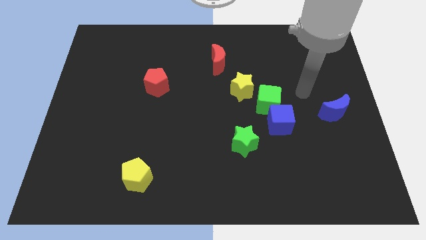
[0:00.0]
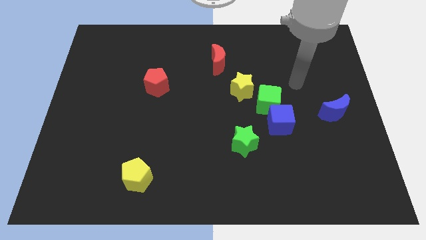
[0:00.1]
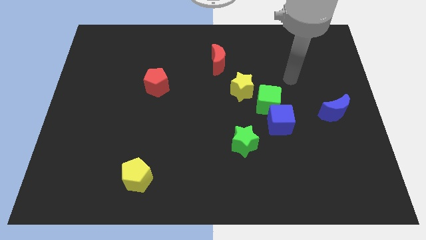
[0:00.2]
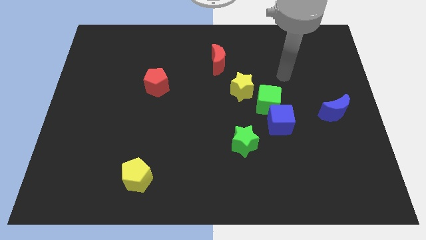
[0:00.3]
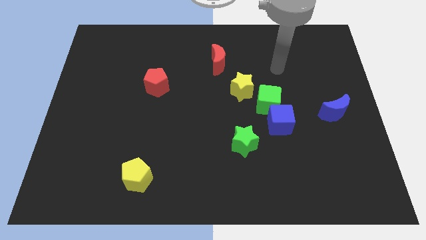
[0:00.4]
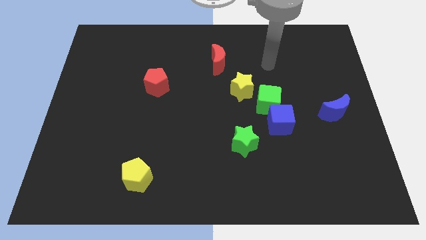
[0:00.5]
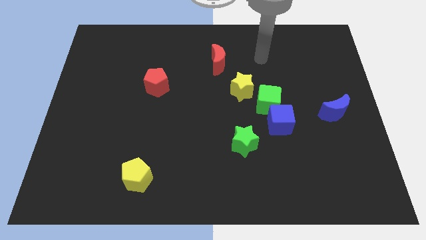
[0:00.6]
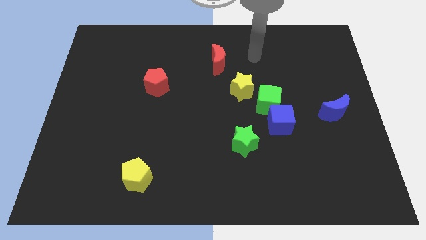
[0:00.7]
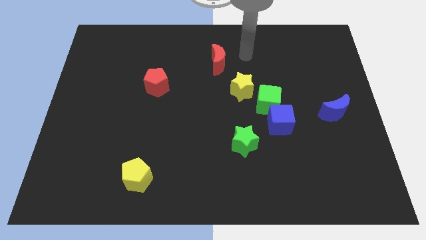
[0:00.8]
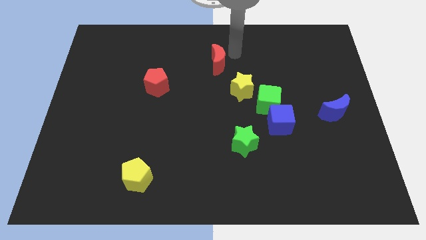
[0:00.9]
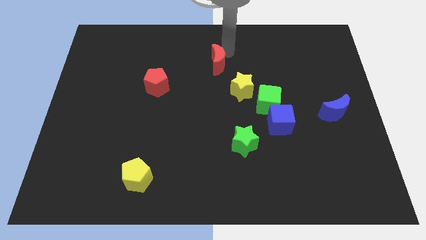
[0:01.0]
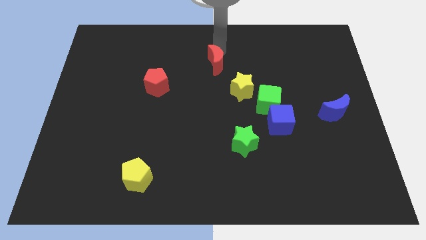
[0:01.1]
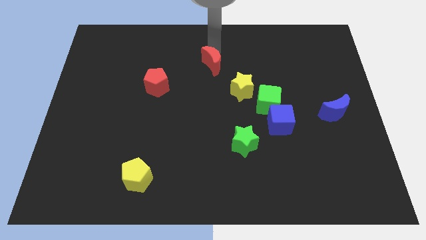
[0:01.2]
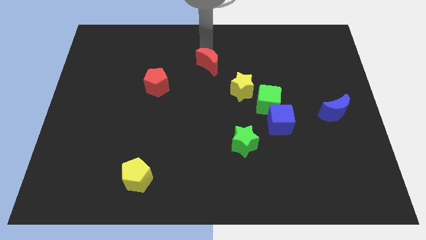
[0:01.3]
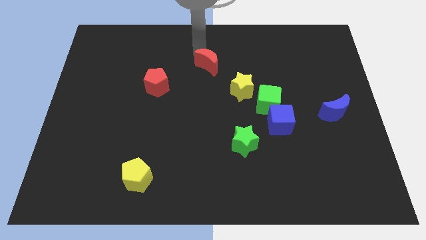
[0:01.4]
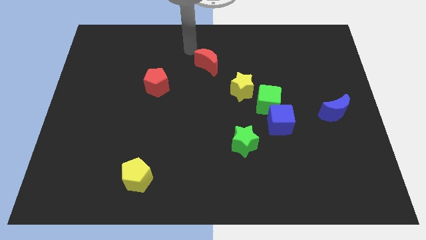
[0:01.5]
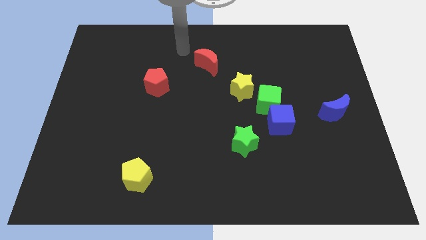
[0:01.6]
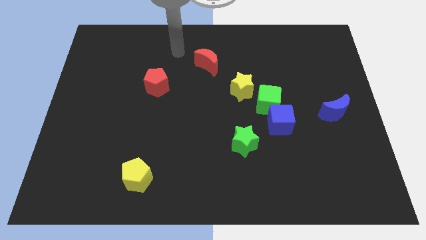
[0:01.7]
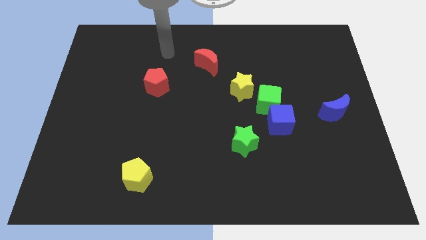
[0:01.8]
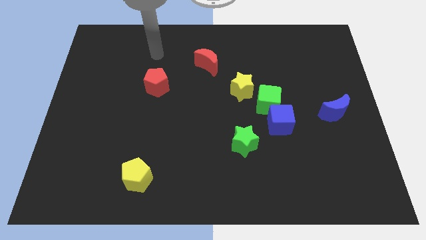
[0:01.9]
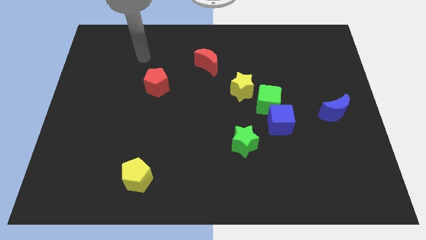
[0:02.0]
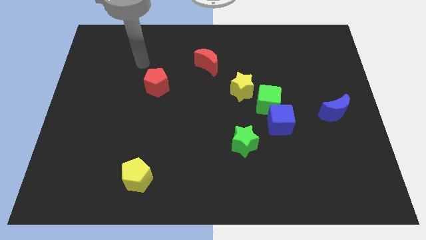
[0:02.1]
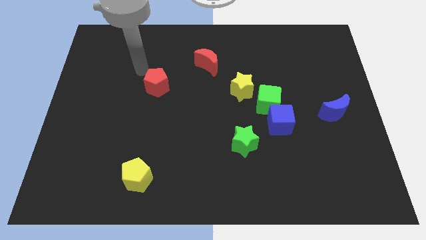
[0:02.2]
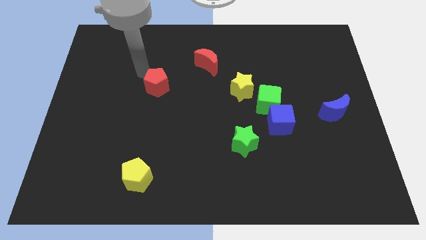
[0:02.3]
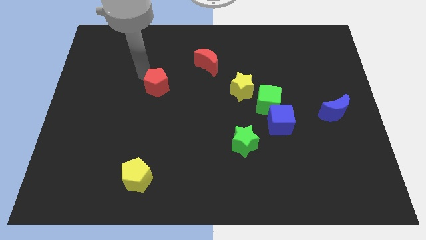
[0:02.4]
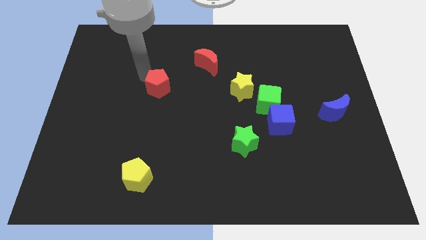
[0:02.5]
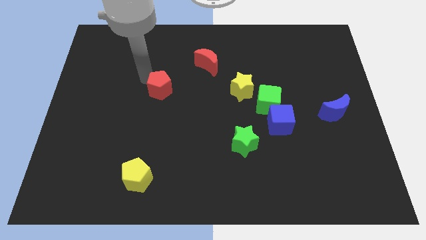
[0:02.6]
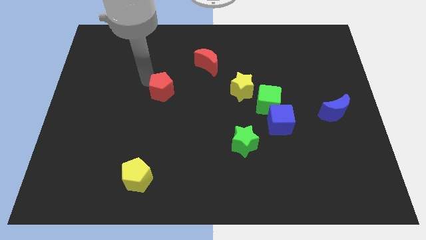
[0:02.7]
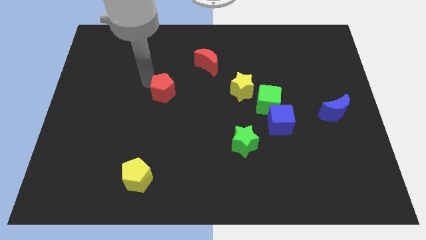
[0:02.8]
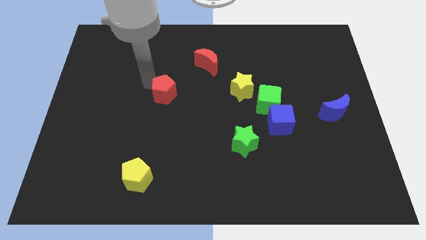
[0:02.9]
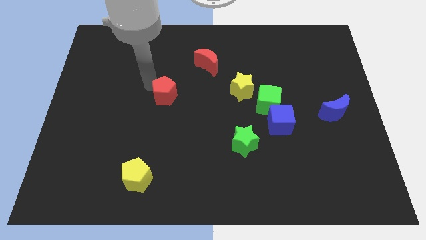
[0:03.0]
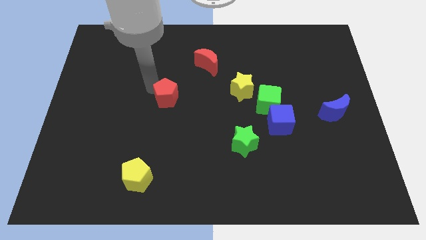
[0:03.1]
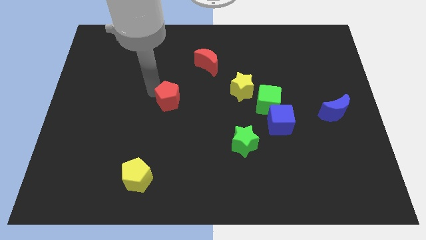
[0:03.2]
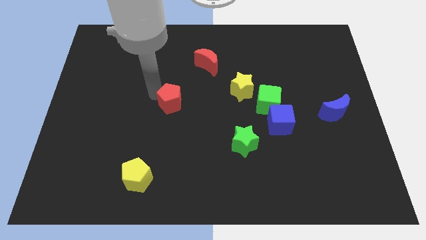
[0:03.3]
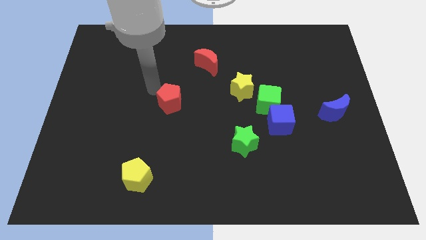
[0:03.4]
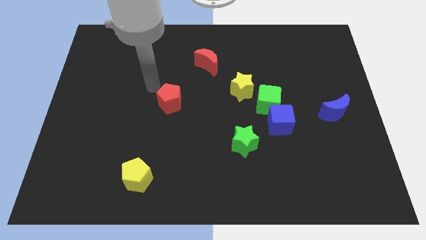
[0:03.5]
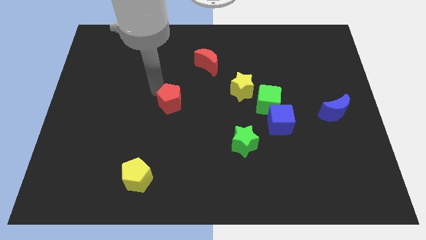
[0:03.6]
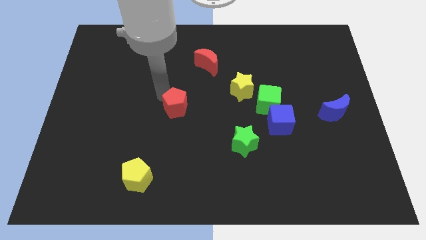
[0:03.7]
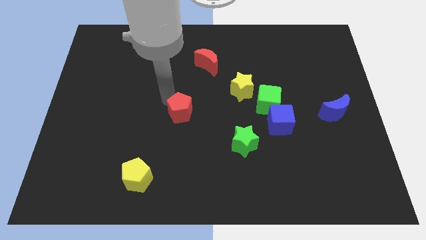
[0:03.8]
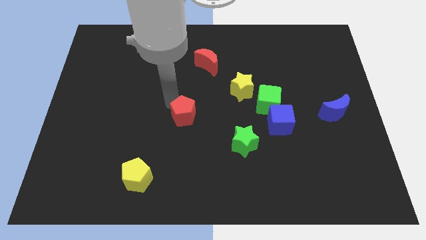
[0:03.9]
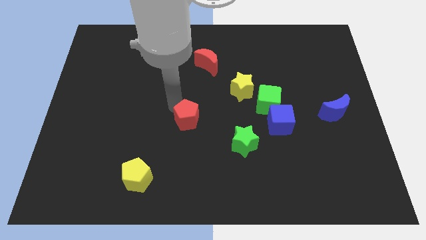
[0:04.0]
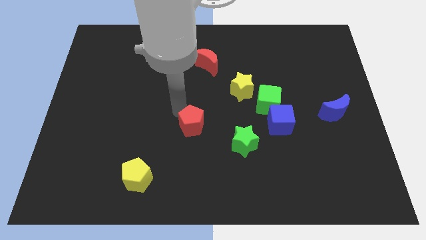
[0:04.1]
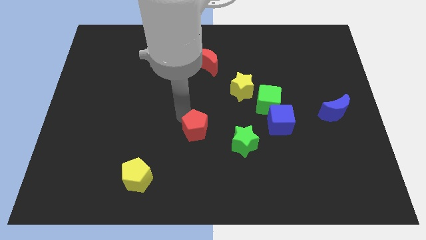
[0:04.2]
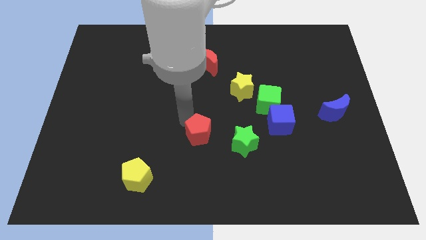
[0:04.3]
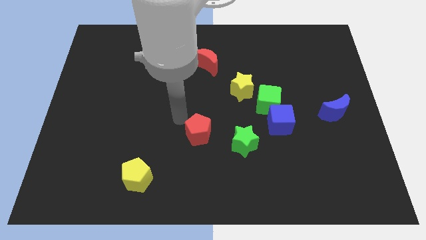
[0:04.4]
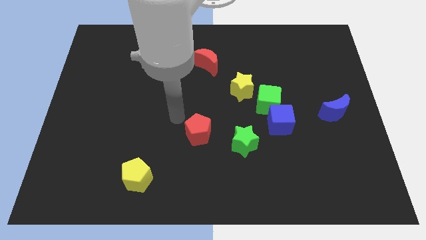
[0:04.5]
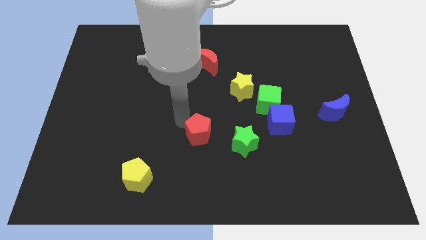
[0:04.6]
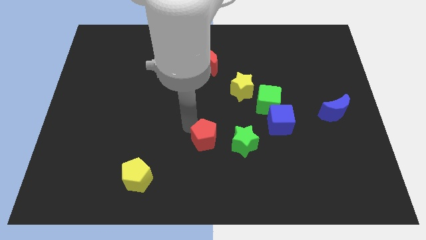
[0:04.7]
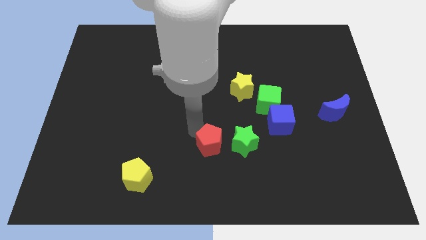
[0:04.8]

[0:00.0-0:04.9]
push the red pentagon down and to the right diagonally

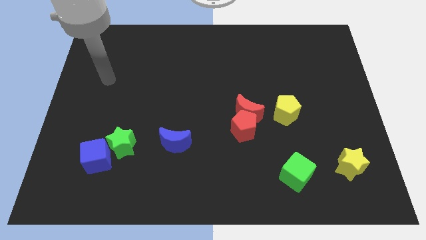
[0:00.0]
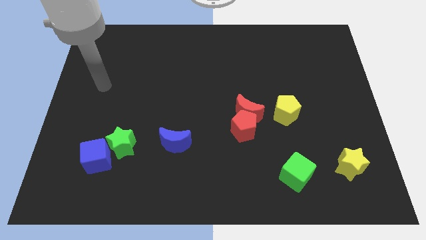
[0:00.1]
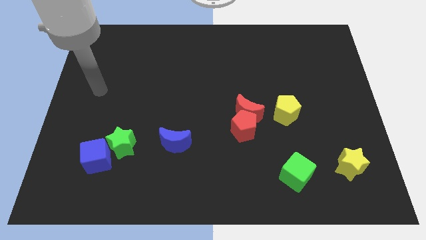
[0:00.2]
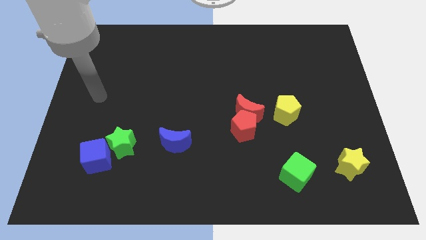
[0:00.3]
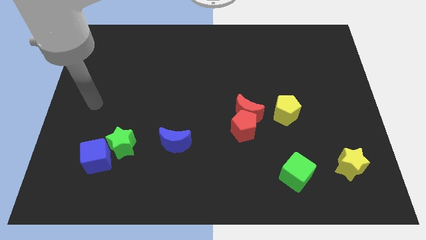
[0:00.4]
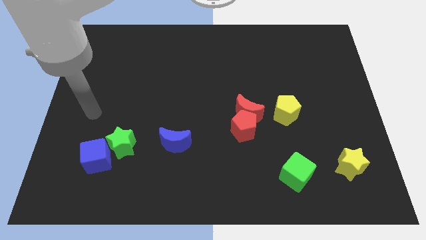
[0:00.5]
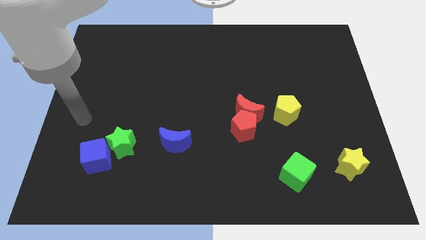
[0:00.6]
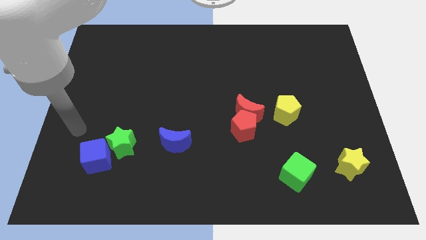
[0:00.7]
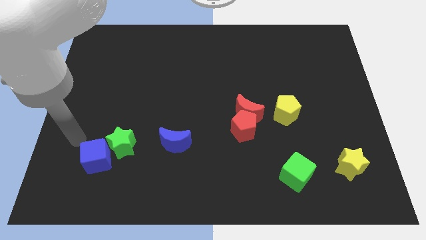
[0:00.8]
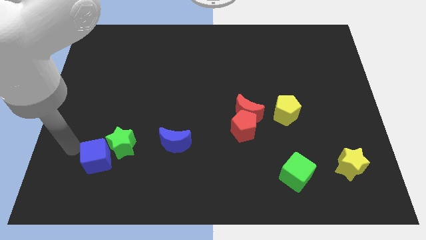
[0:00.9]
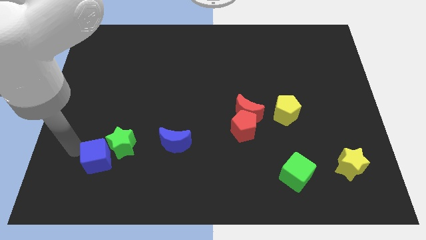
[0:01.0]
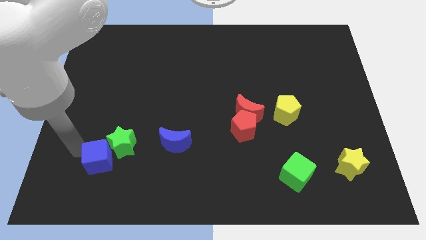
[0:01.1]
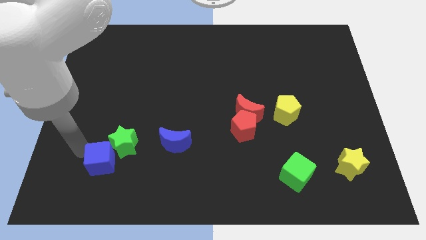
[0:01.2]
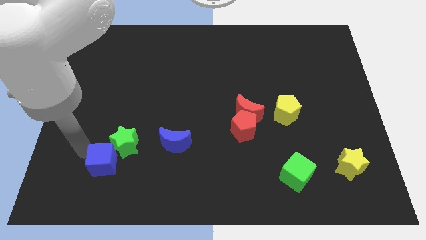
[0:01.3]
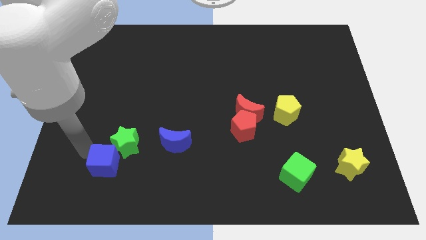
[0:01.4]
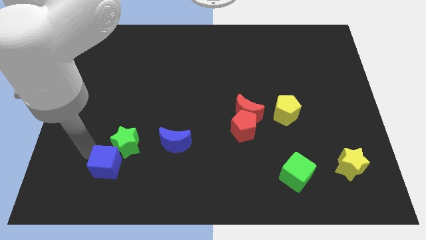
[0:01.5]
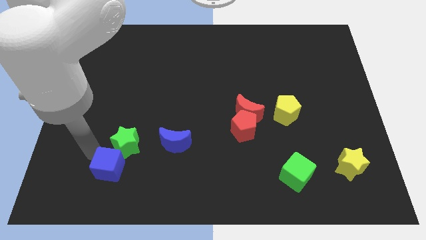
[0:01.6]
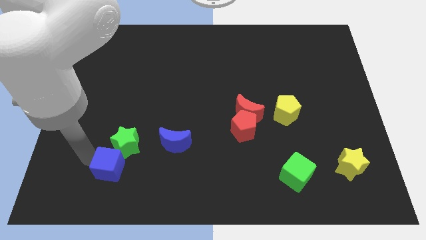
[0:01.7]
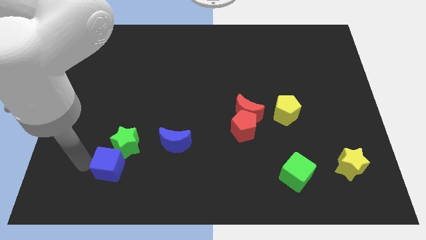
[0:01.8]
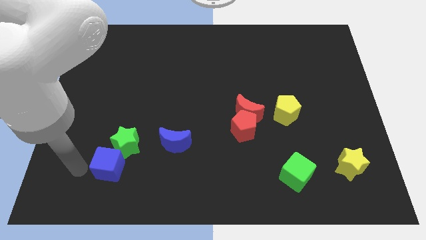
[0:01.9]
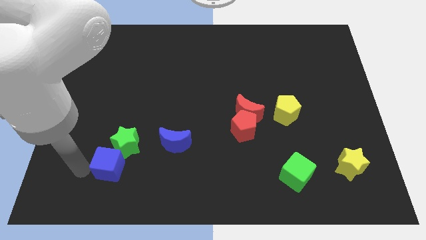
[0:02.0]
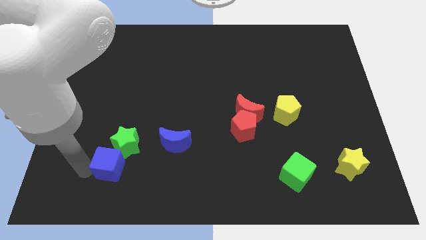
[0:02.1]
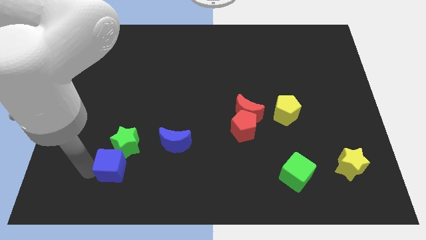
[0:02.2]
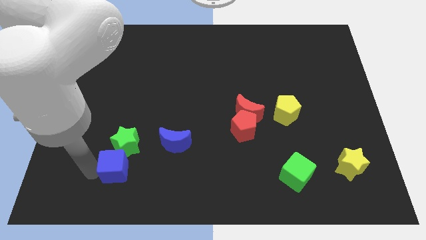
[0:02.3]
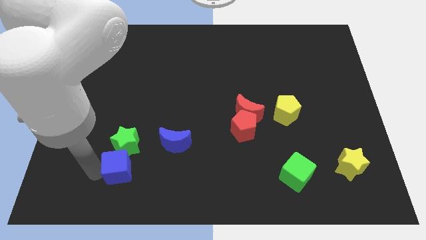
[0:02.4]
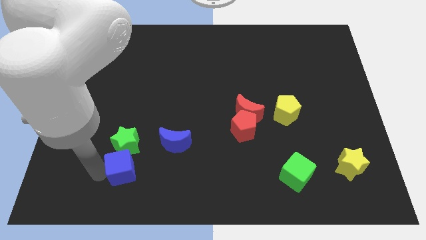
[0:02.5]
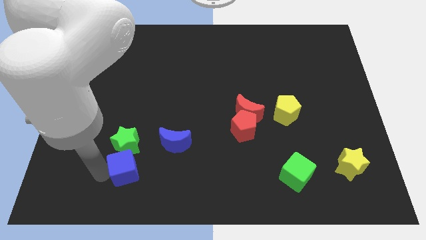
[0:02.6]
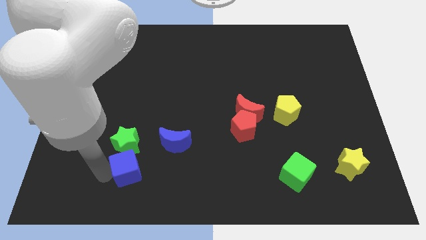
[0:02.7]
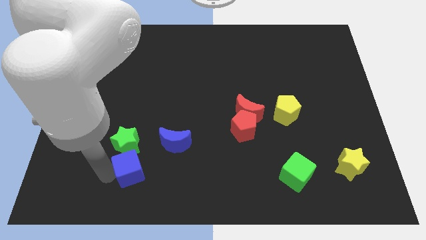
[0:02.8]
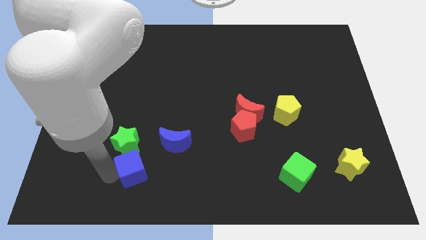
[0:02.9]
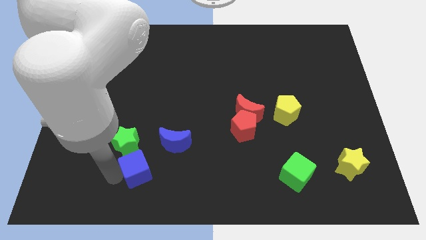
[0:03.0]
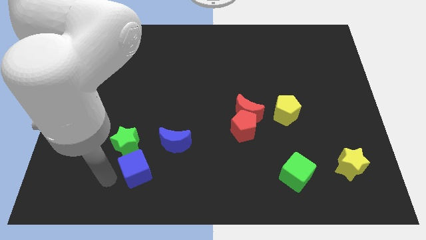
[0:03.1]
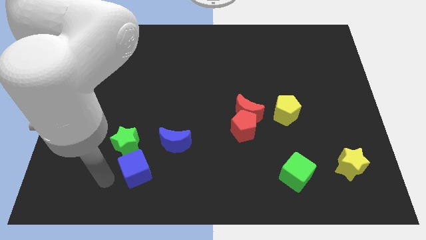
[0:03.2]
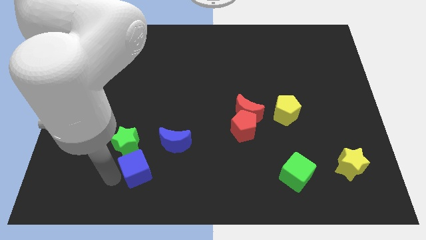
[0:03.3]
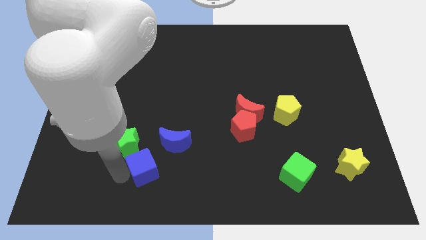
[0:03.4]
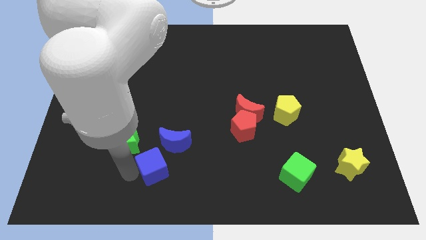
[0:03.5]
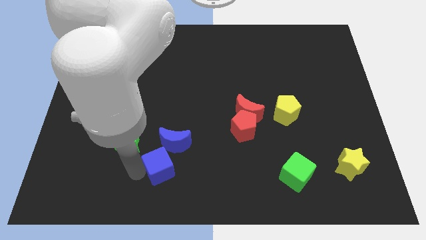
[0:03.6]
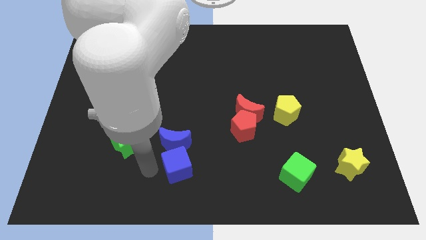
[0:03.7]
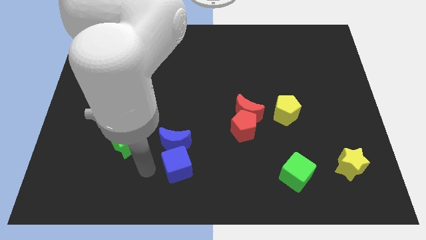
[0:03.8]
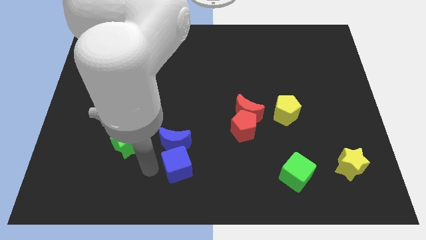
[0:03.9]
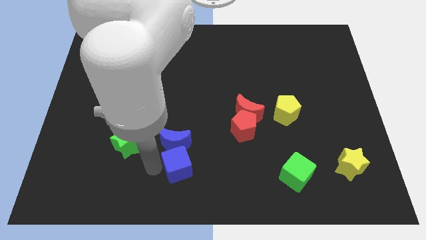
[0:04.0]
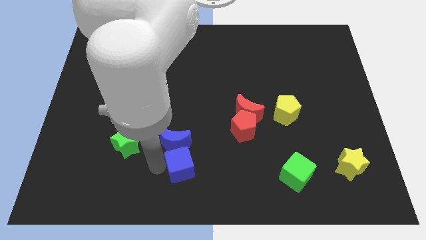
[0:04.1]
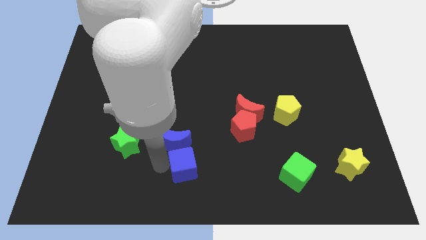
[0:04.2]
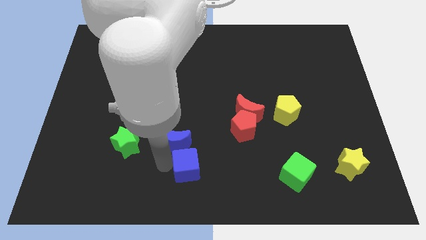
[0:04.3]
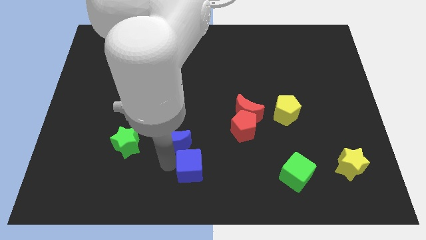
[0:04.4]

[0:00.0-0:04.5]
slide the blue cube right
